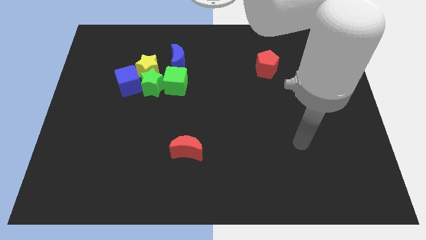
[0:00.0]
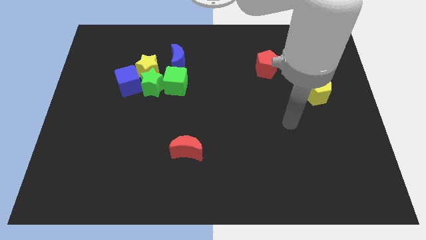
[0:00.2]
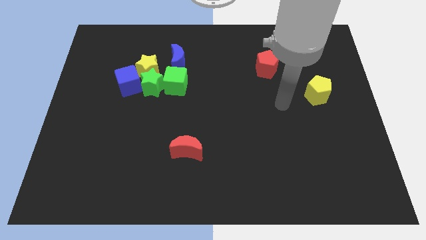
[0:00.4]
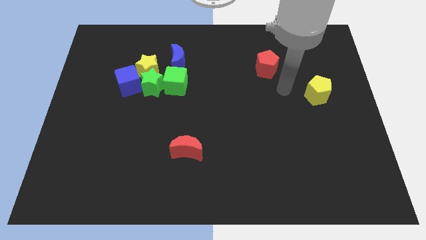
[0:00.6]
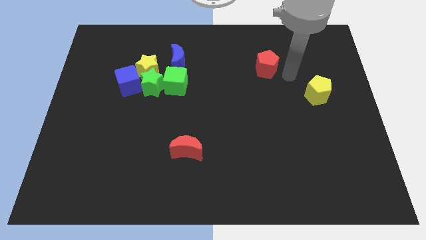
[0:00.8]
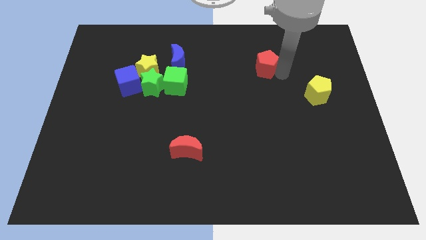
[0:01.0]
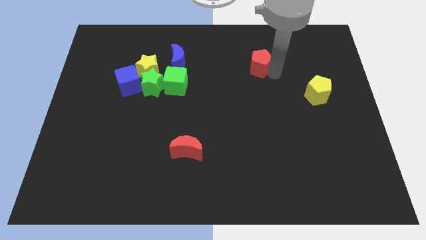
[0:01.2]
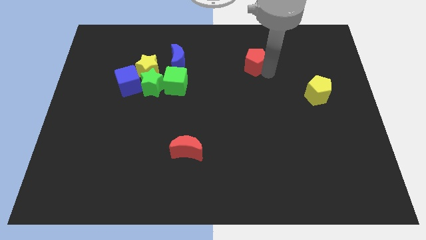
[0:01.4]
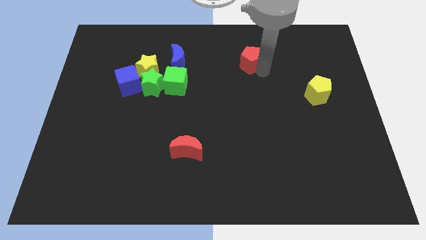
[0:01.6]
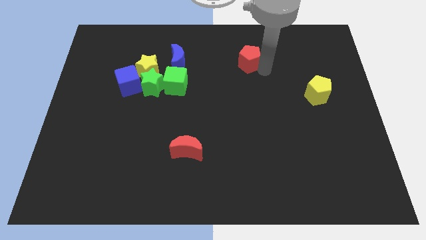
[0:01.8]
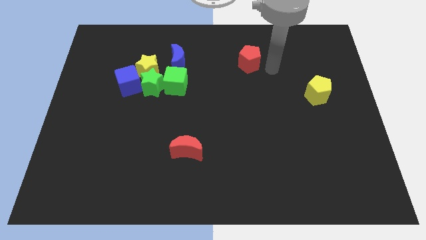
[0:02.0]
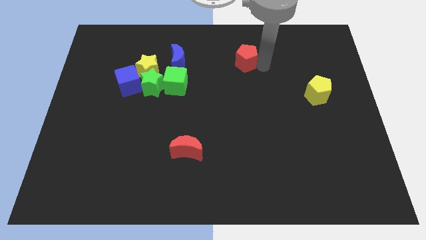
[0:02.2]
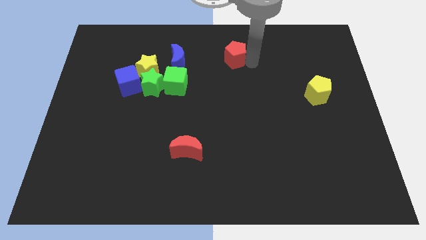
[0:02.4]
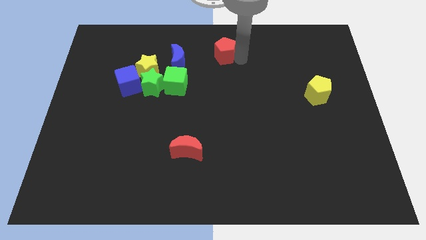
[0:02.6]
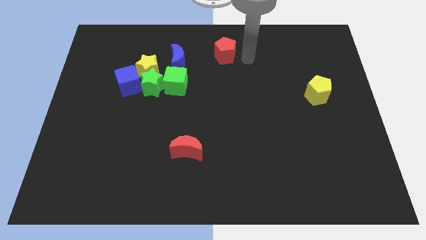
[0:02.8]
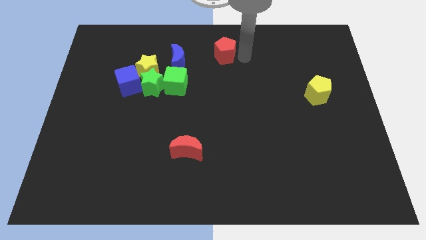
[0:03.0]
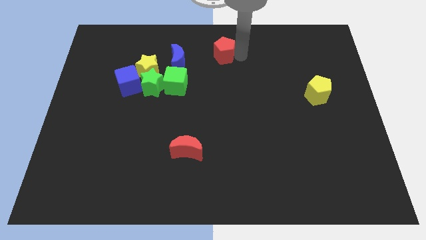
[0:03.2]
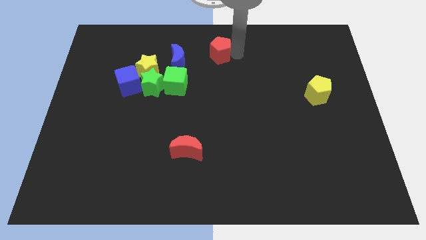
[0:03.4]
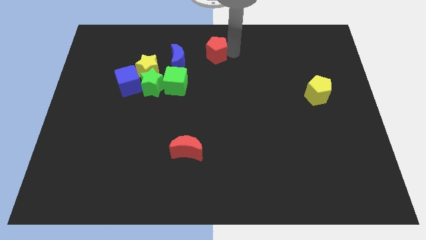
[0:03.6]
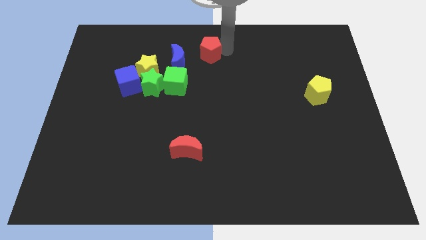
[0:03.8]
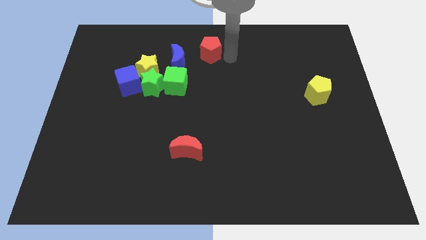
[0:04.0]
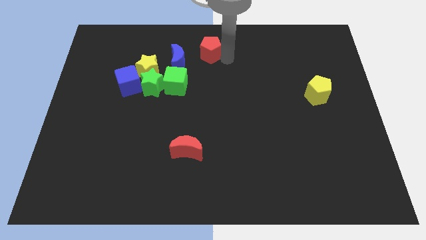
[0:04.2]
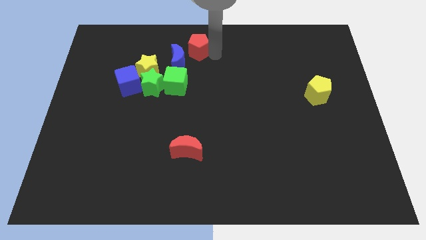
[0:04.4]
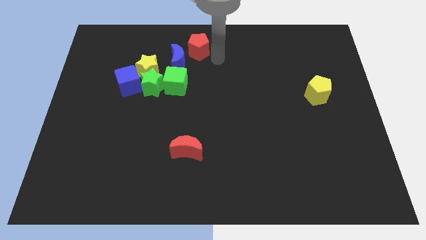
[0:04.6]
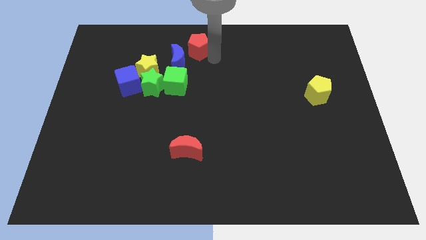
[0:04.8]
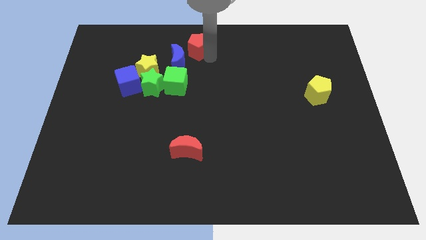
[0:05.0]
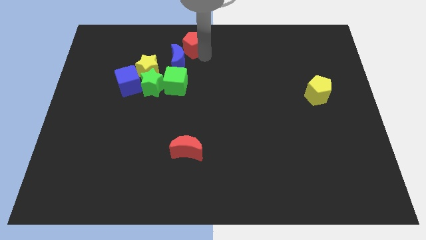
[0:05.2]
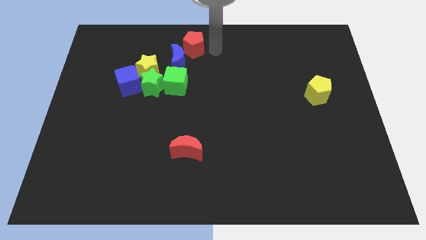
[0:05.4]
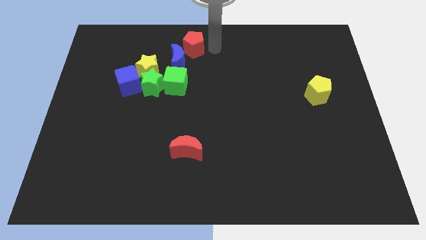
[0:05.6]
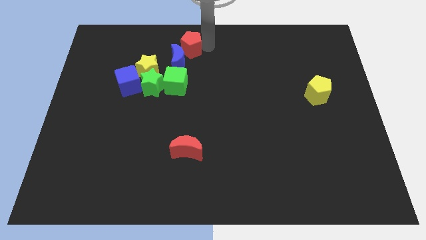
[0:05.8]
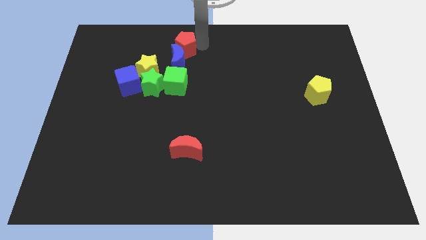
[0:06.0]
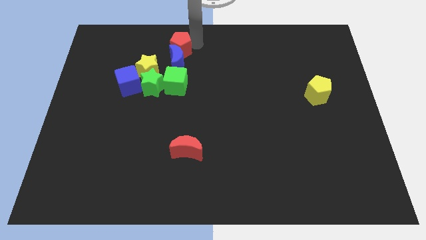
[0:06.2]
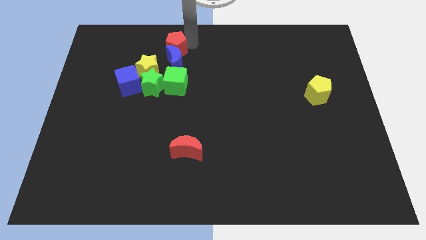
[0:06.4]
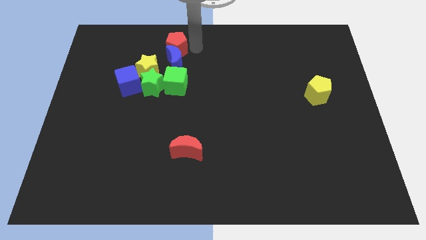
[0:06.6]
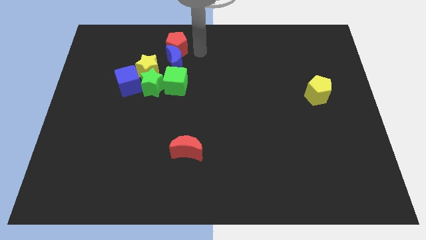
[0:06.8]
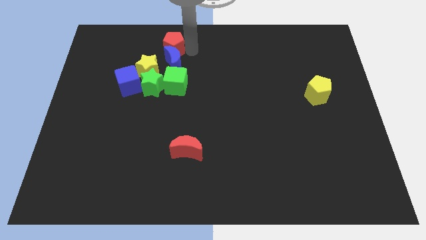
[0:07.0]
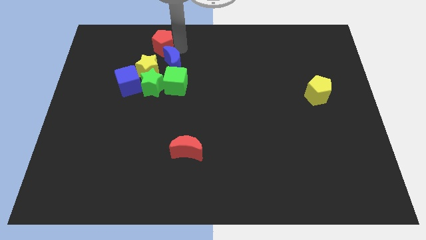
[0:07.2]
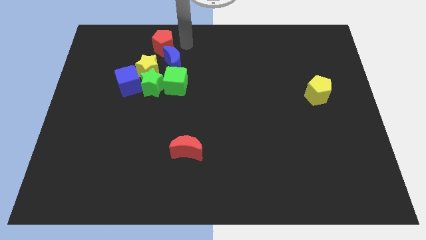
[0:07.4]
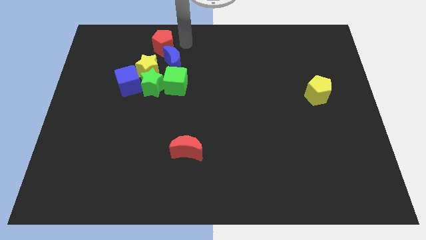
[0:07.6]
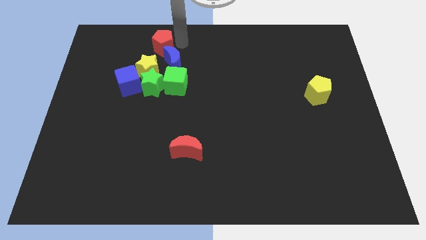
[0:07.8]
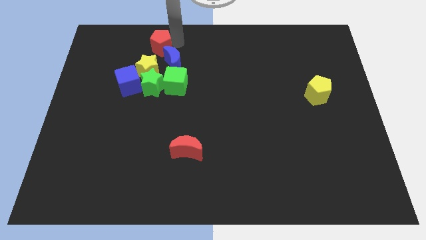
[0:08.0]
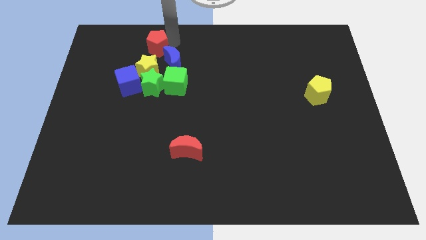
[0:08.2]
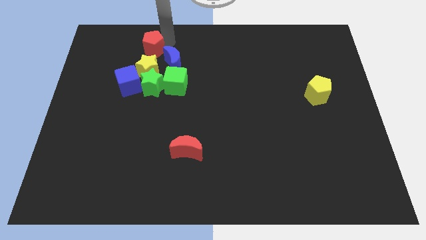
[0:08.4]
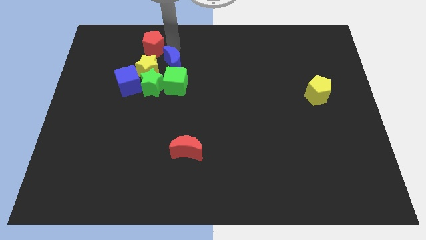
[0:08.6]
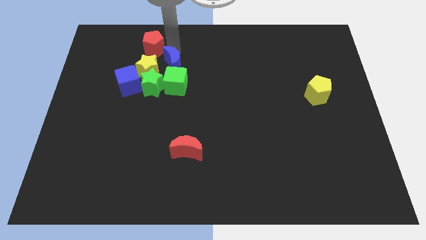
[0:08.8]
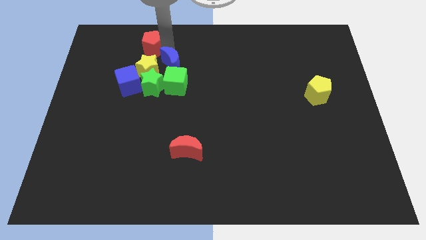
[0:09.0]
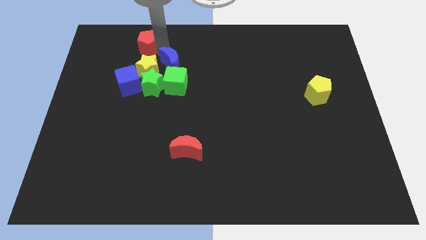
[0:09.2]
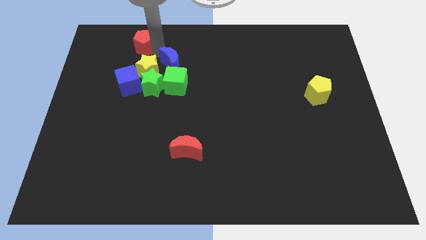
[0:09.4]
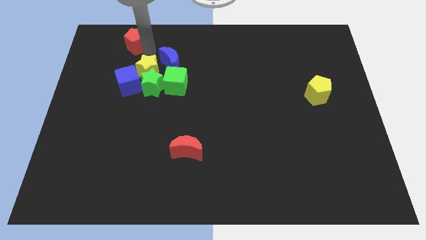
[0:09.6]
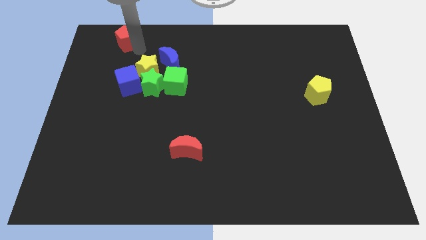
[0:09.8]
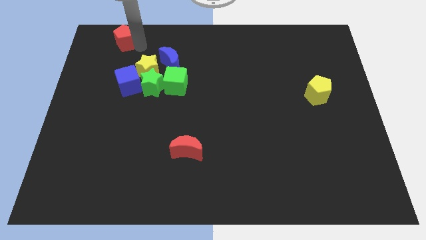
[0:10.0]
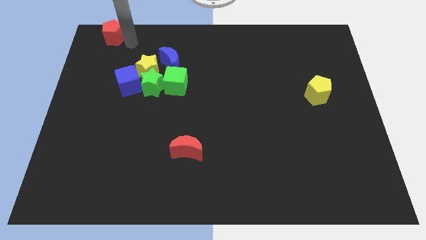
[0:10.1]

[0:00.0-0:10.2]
slide the red pentagon to the top left corner

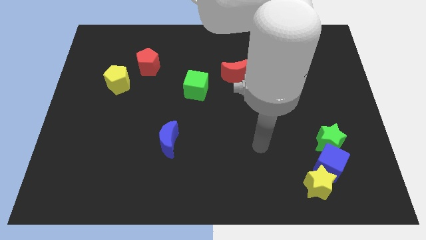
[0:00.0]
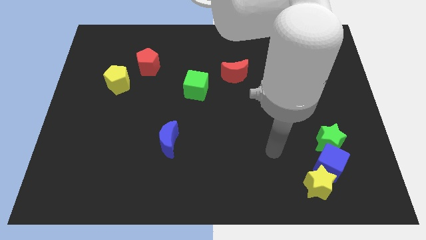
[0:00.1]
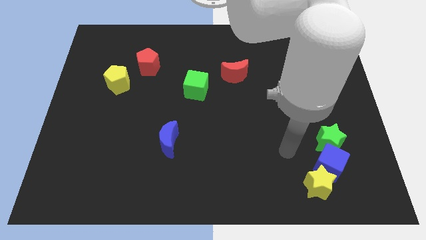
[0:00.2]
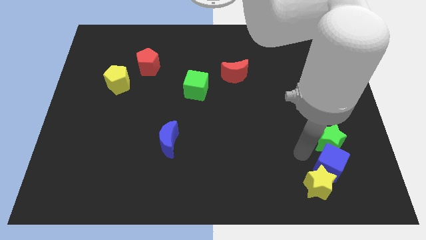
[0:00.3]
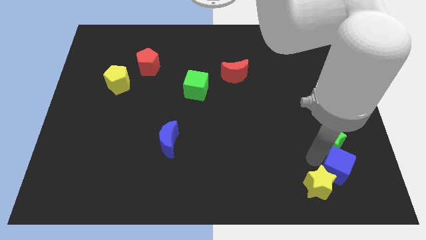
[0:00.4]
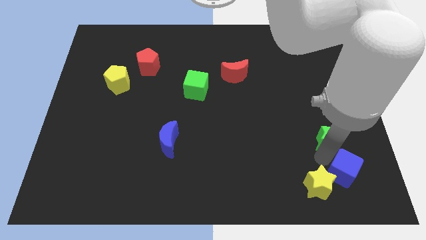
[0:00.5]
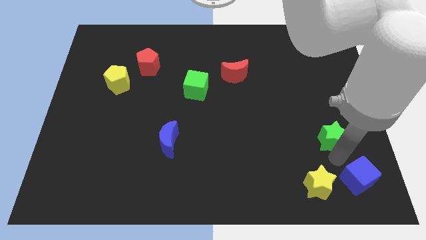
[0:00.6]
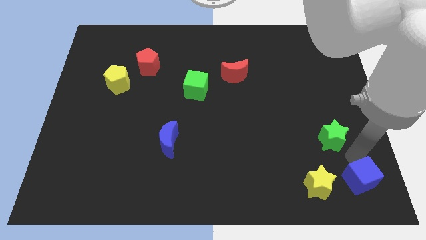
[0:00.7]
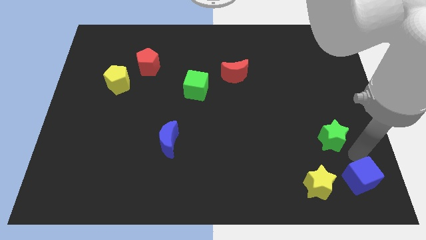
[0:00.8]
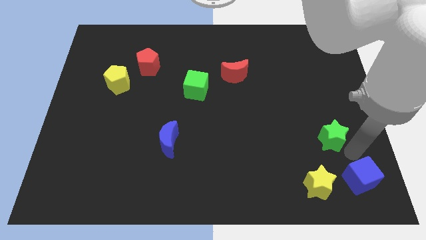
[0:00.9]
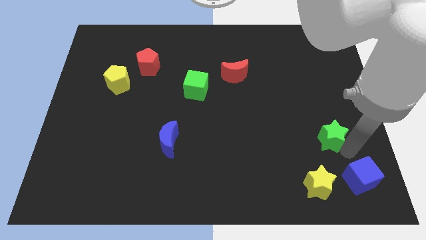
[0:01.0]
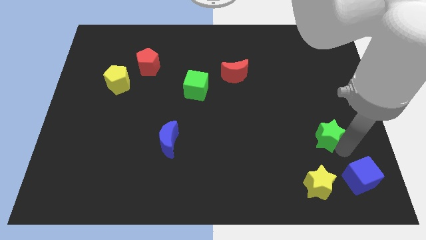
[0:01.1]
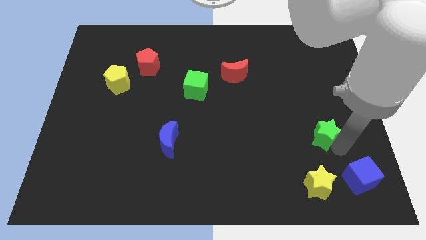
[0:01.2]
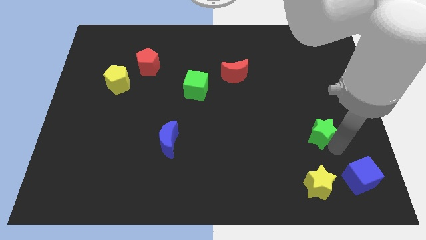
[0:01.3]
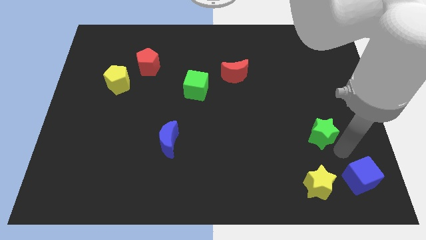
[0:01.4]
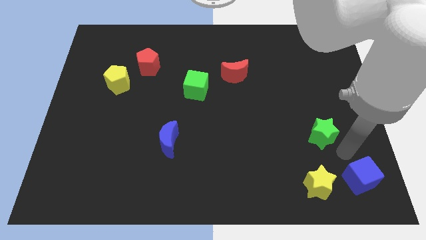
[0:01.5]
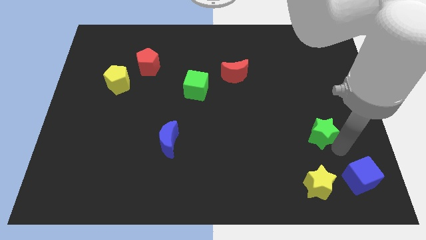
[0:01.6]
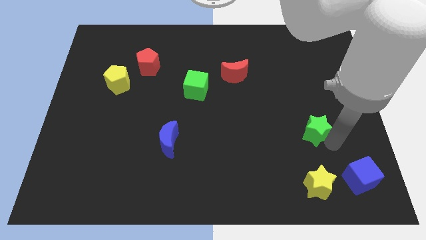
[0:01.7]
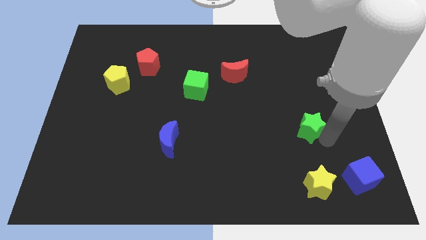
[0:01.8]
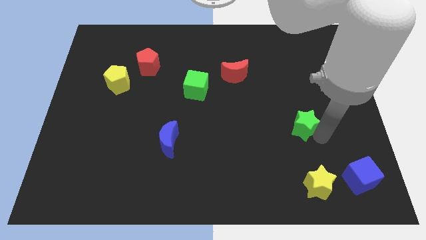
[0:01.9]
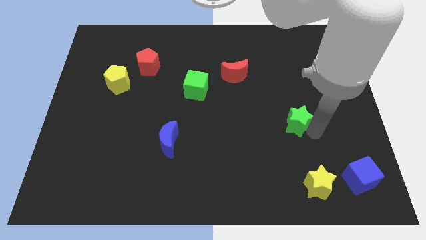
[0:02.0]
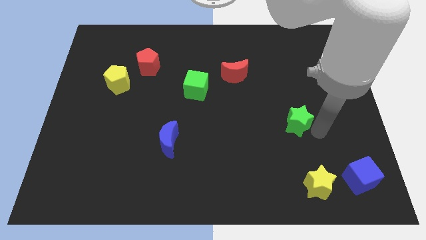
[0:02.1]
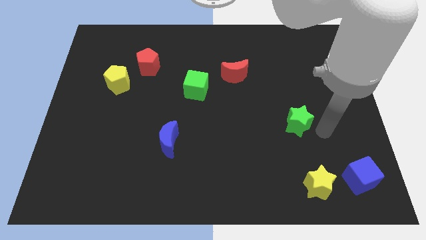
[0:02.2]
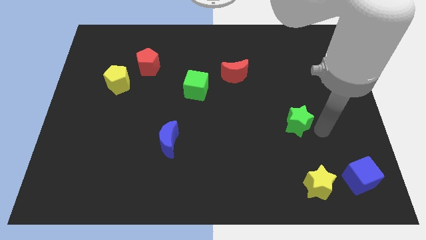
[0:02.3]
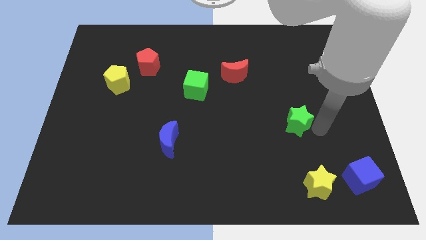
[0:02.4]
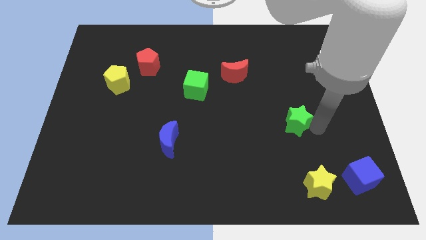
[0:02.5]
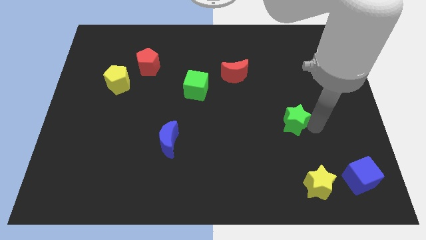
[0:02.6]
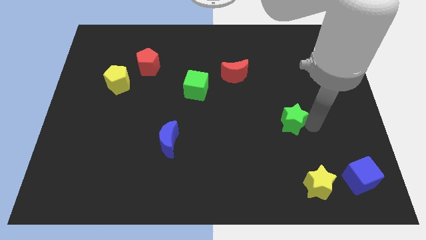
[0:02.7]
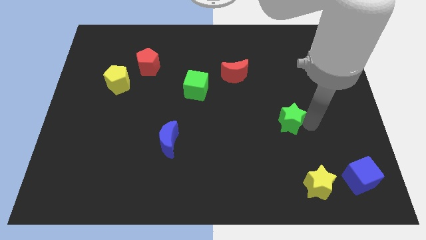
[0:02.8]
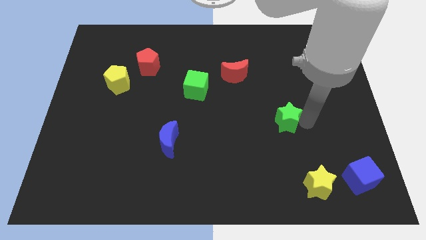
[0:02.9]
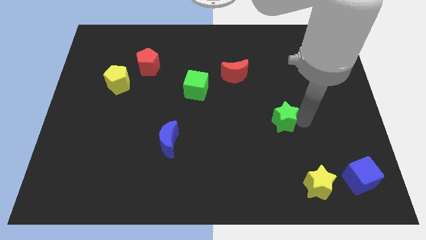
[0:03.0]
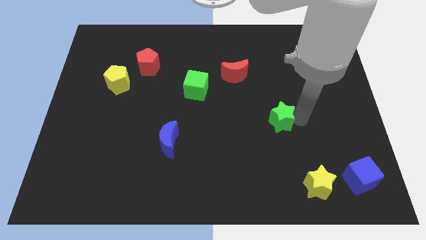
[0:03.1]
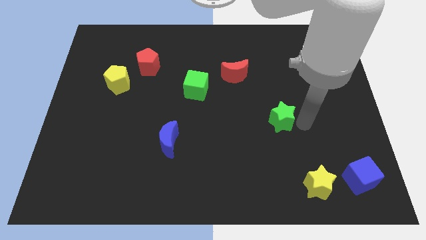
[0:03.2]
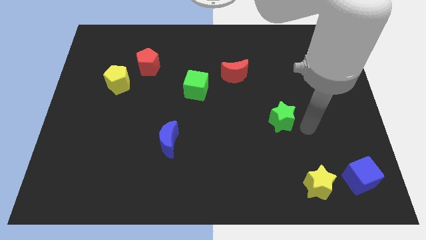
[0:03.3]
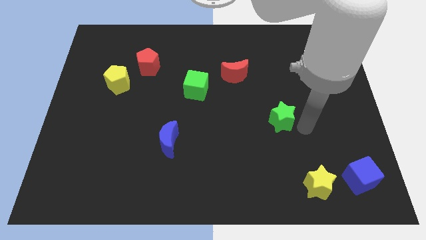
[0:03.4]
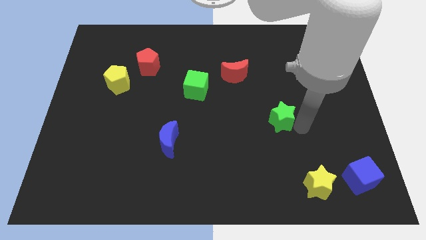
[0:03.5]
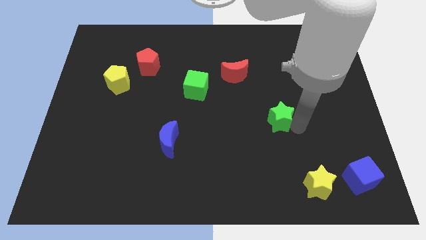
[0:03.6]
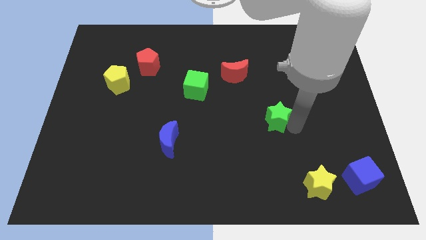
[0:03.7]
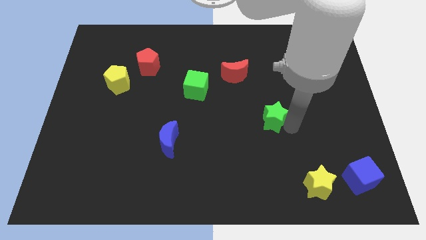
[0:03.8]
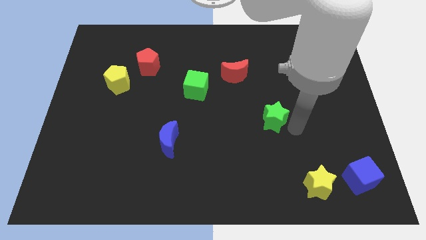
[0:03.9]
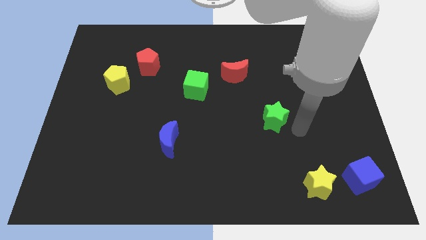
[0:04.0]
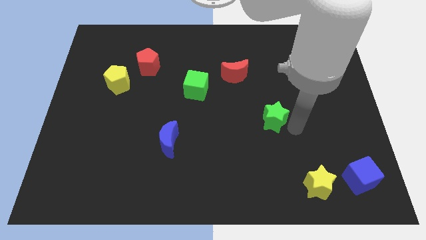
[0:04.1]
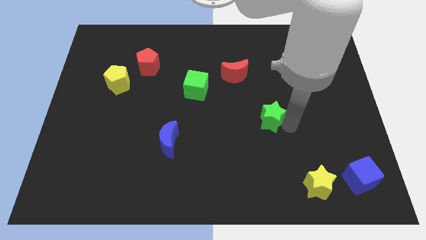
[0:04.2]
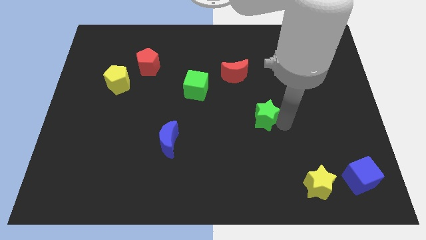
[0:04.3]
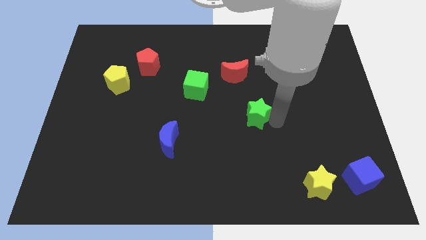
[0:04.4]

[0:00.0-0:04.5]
push the green star to the center of the board
